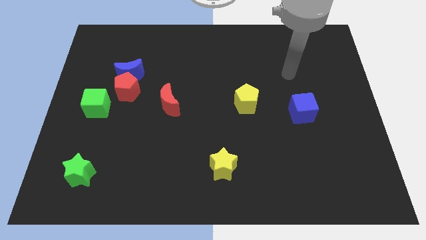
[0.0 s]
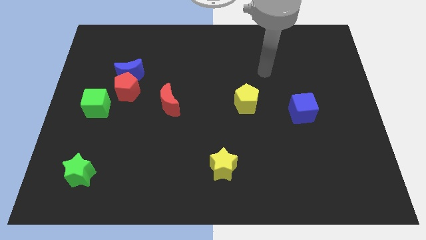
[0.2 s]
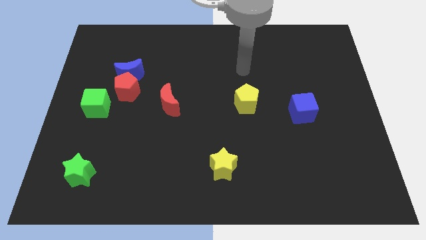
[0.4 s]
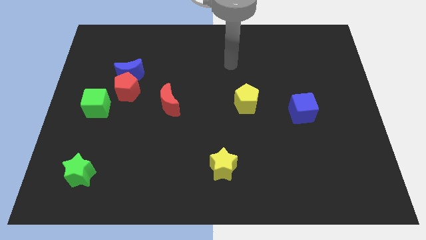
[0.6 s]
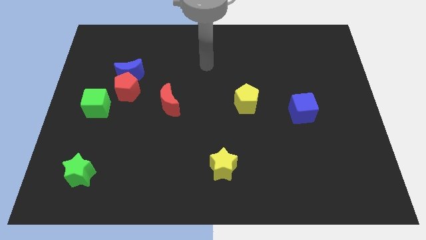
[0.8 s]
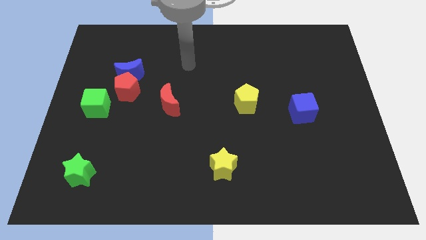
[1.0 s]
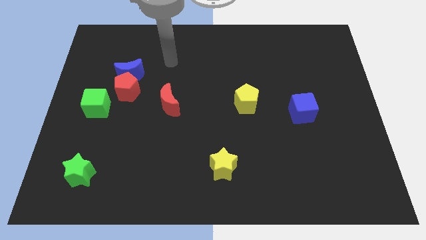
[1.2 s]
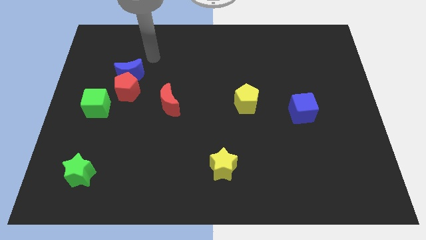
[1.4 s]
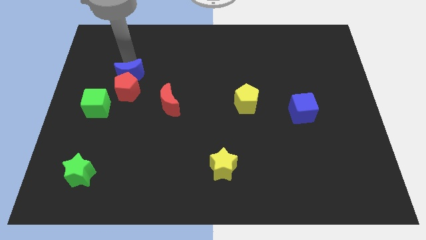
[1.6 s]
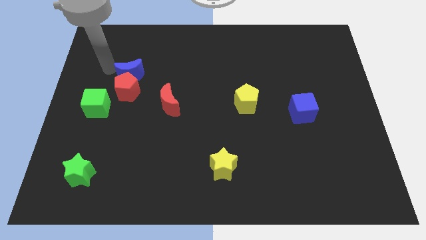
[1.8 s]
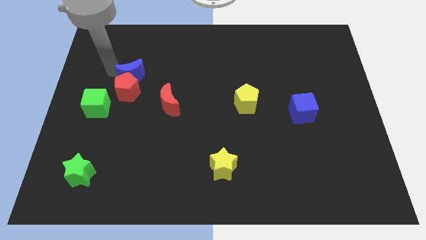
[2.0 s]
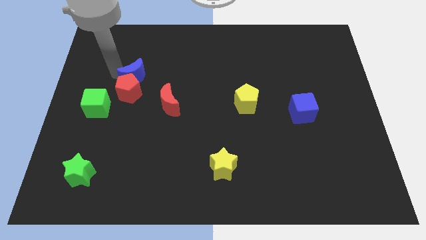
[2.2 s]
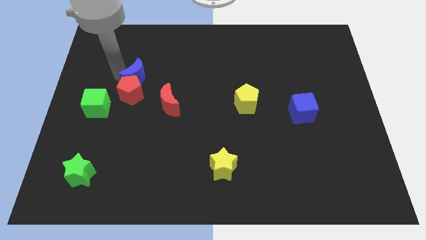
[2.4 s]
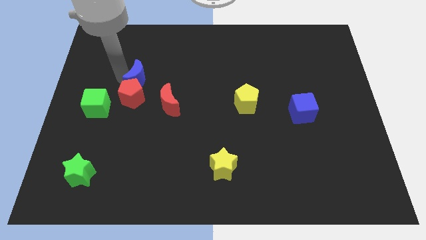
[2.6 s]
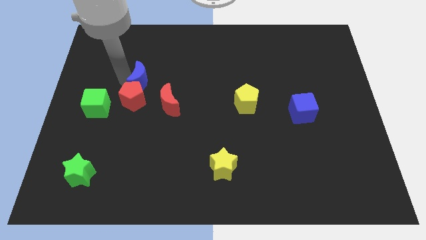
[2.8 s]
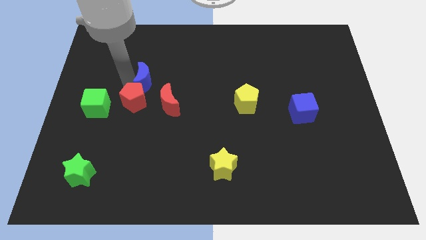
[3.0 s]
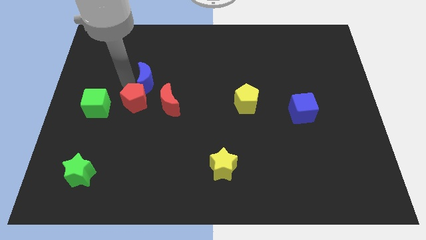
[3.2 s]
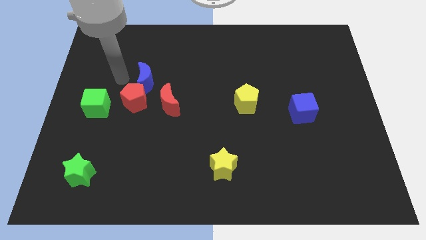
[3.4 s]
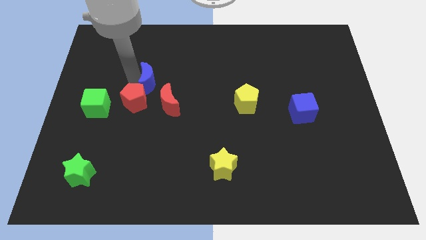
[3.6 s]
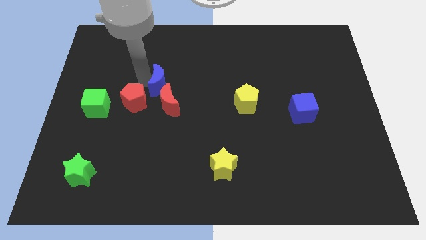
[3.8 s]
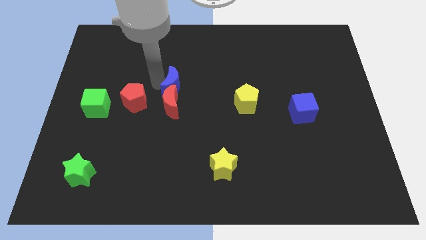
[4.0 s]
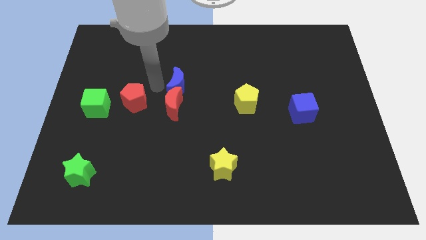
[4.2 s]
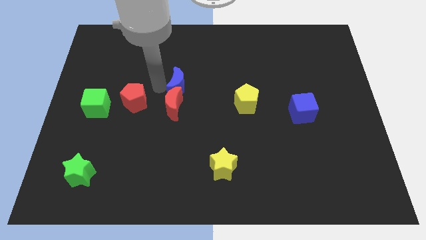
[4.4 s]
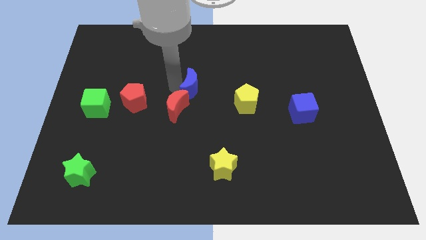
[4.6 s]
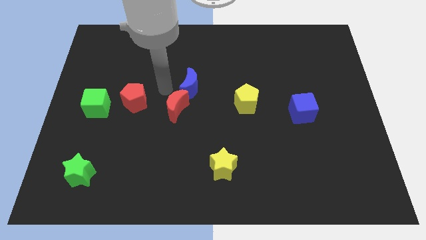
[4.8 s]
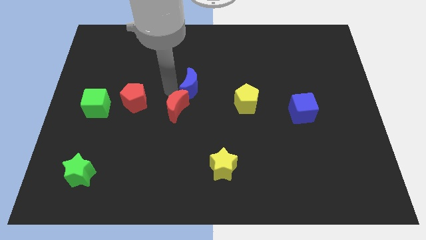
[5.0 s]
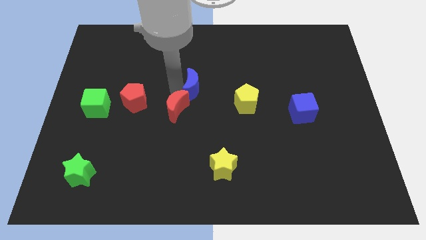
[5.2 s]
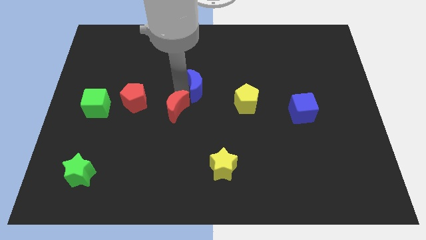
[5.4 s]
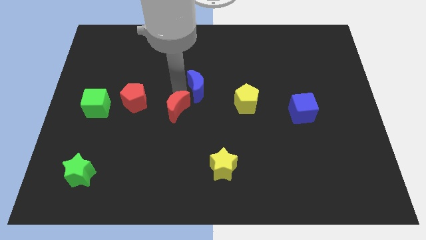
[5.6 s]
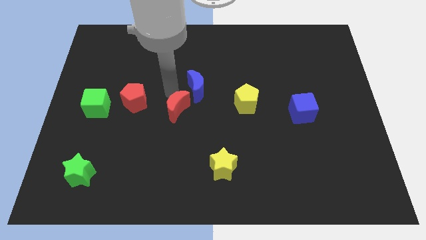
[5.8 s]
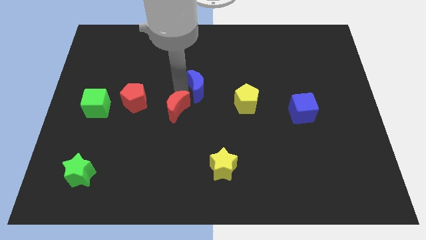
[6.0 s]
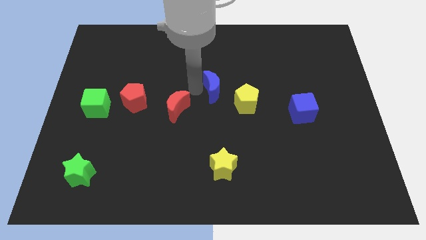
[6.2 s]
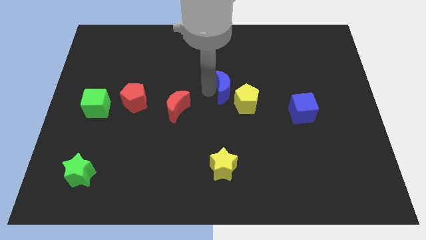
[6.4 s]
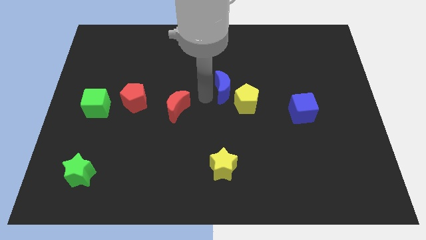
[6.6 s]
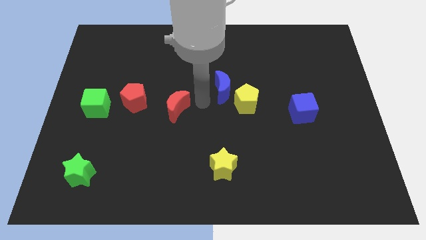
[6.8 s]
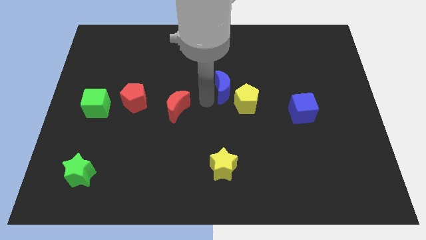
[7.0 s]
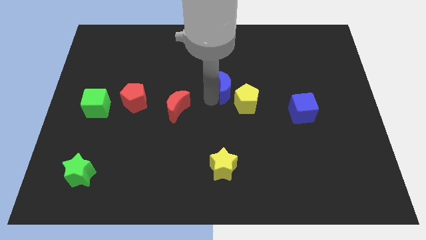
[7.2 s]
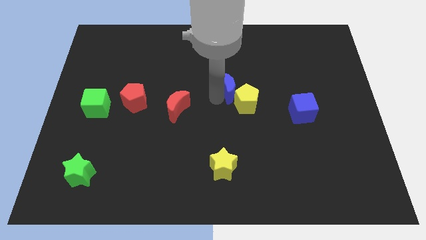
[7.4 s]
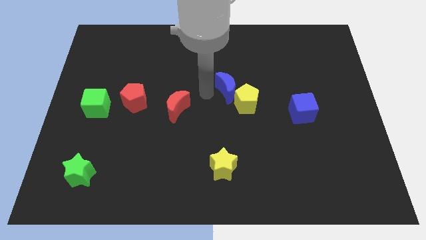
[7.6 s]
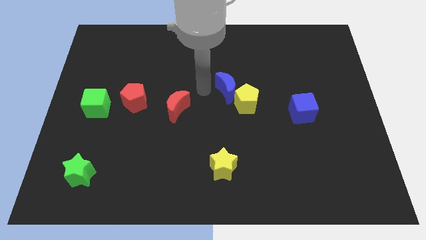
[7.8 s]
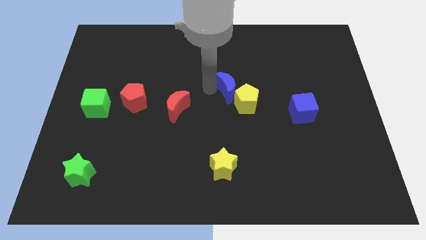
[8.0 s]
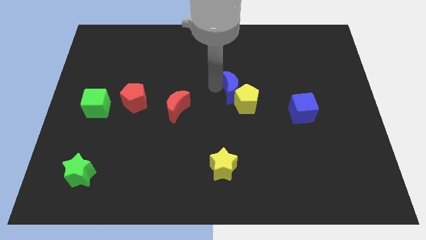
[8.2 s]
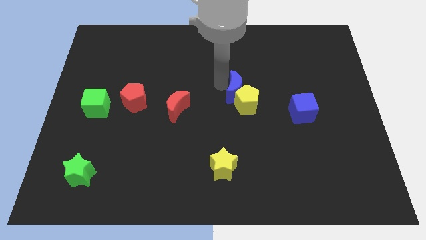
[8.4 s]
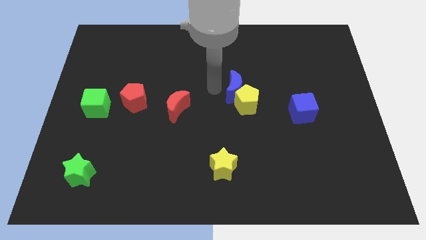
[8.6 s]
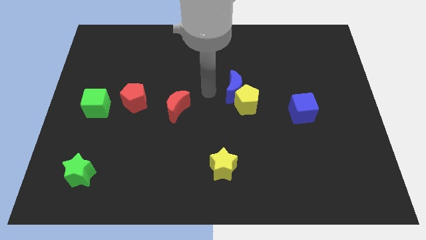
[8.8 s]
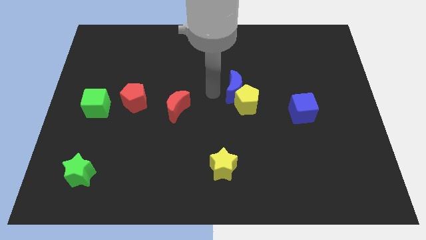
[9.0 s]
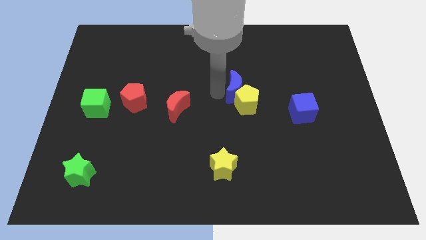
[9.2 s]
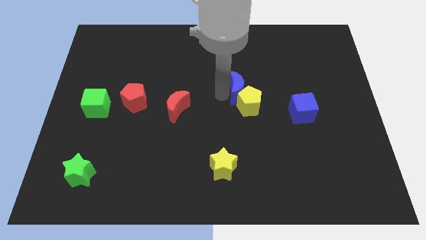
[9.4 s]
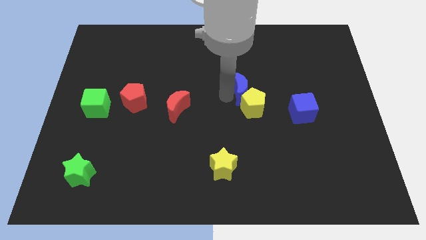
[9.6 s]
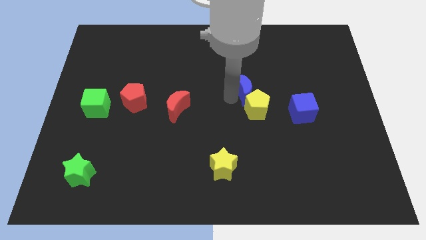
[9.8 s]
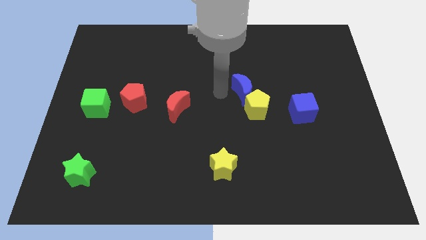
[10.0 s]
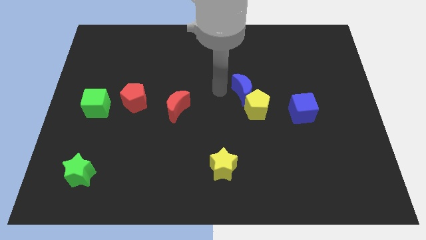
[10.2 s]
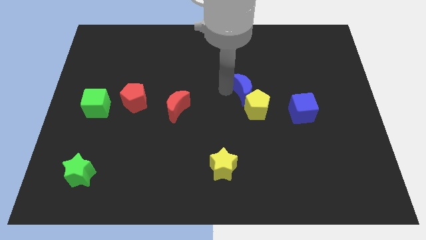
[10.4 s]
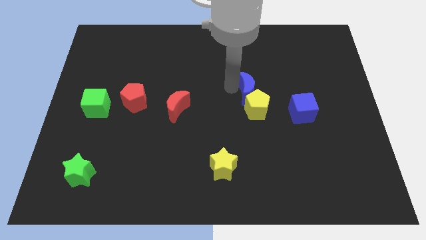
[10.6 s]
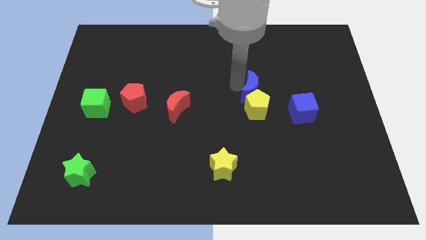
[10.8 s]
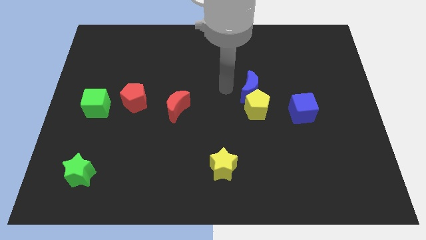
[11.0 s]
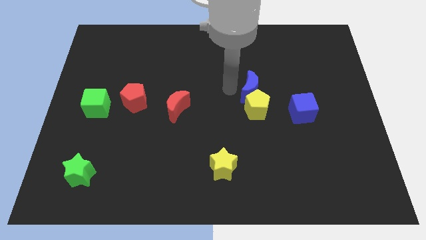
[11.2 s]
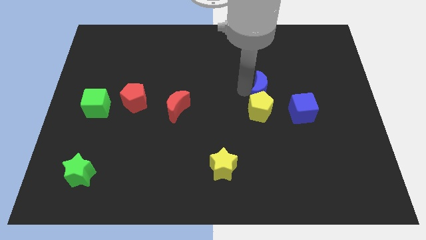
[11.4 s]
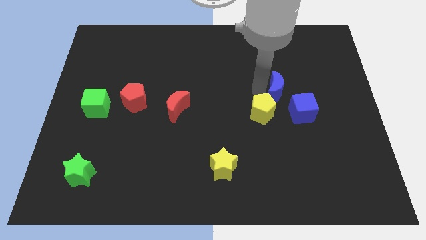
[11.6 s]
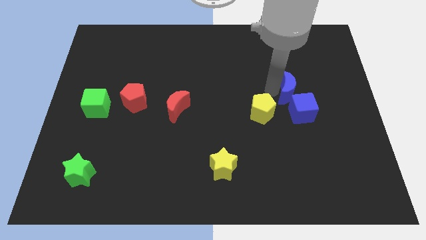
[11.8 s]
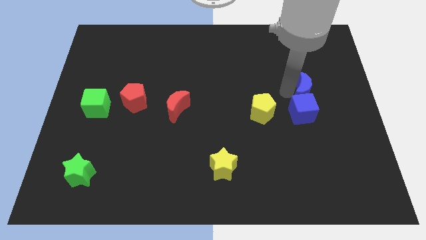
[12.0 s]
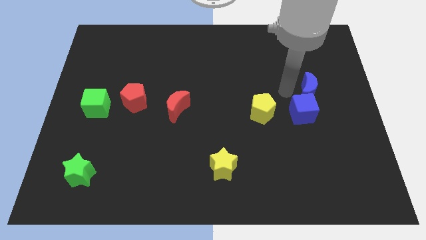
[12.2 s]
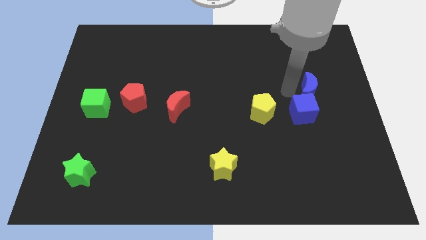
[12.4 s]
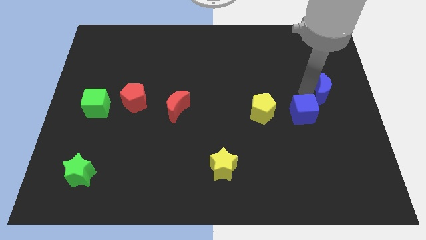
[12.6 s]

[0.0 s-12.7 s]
move the blue moon to the center right
